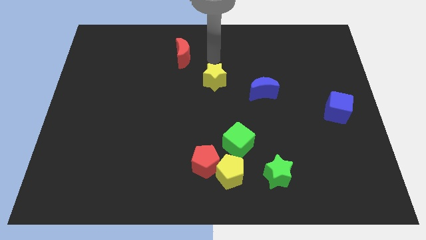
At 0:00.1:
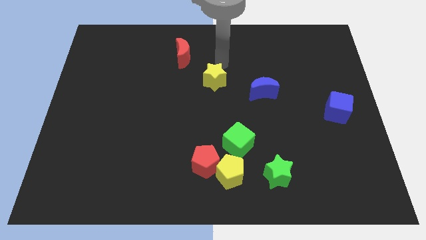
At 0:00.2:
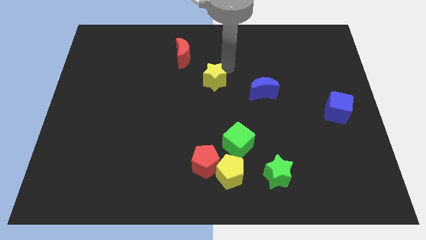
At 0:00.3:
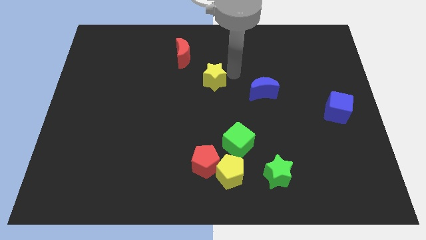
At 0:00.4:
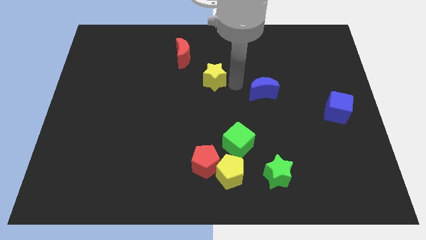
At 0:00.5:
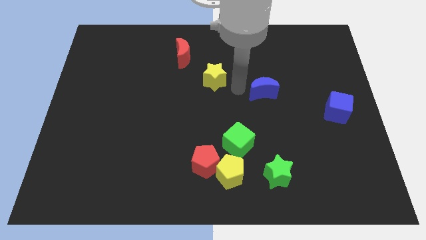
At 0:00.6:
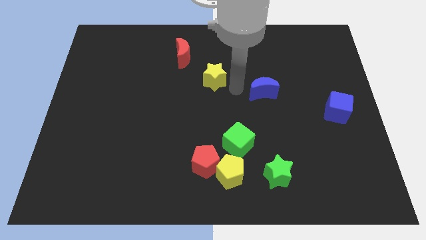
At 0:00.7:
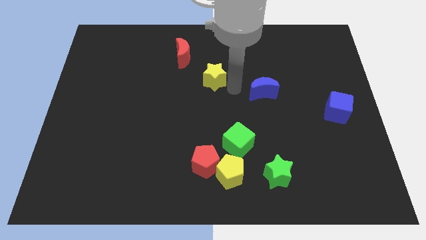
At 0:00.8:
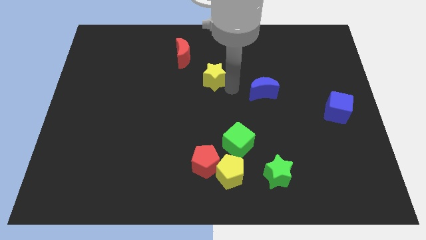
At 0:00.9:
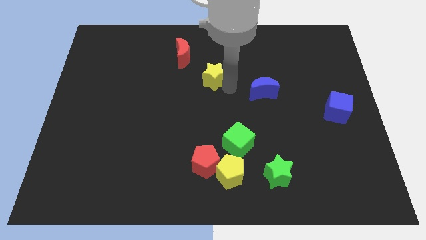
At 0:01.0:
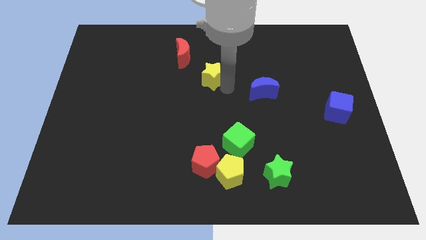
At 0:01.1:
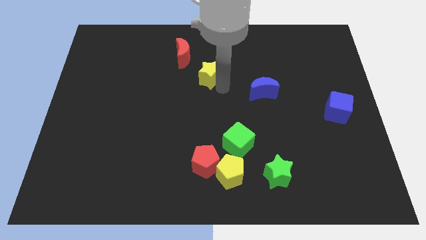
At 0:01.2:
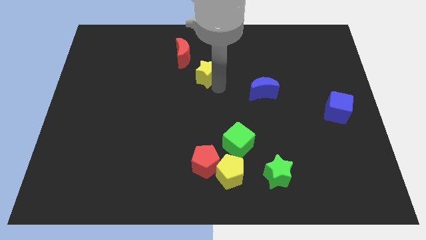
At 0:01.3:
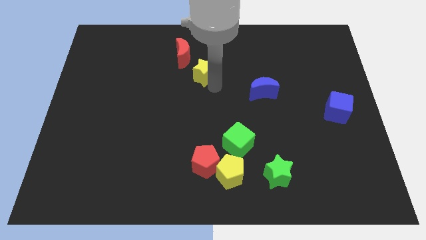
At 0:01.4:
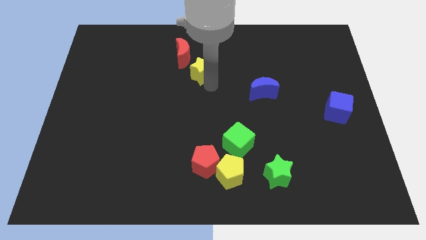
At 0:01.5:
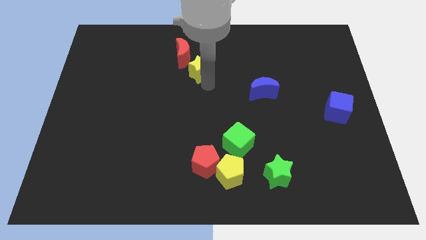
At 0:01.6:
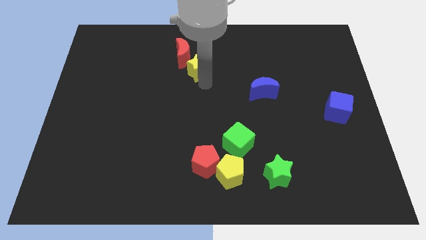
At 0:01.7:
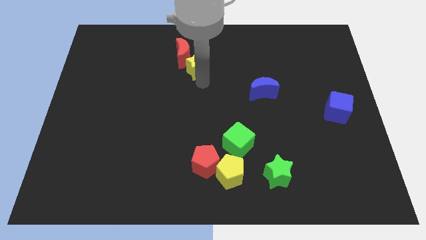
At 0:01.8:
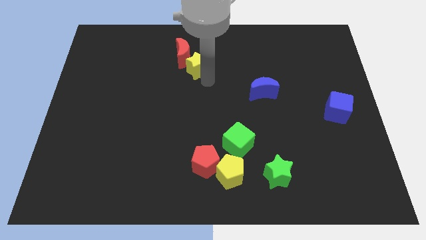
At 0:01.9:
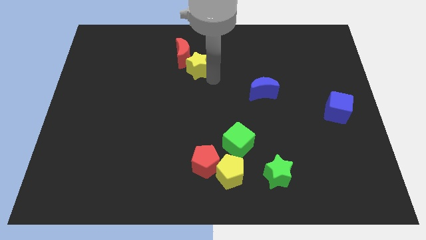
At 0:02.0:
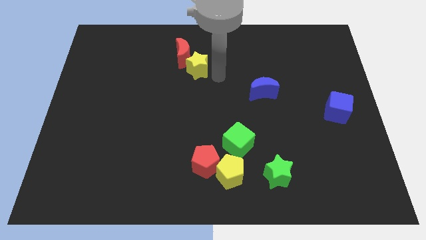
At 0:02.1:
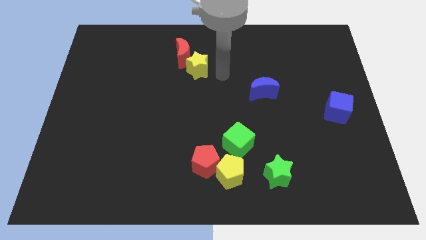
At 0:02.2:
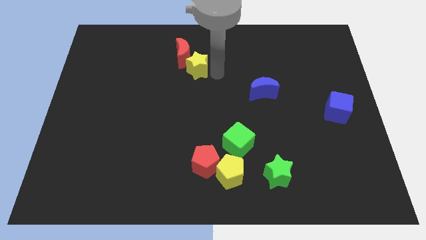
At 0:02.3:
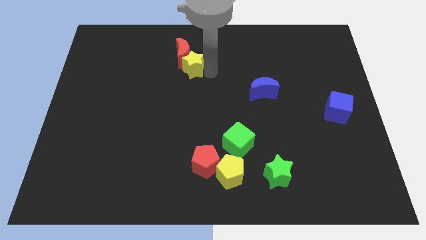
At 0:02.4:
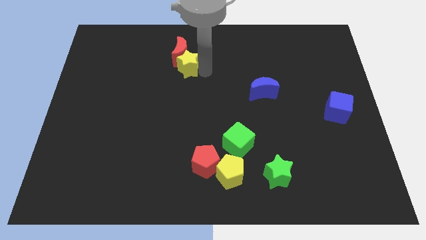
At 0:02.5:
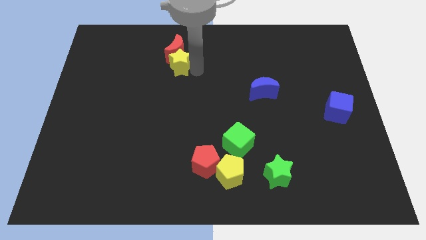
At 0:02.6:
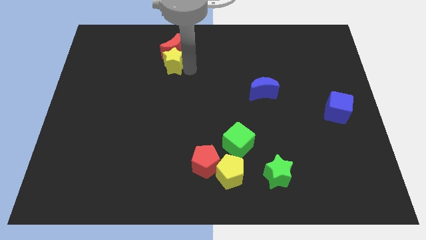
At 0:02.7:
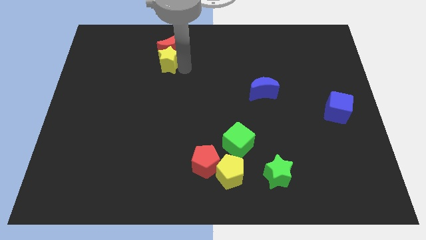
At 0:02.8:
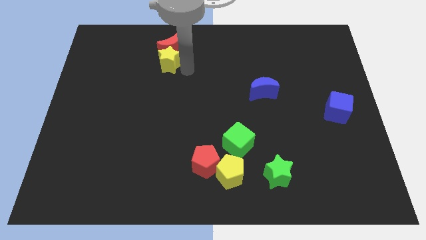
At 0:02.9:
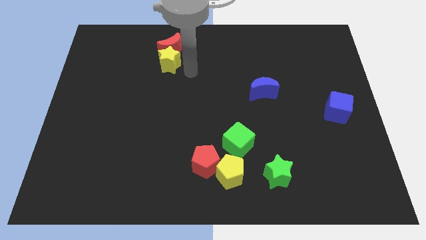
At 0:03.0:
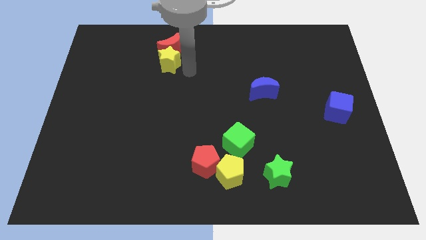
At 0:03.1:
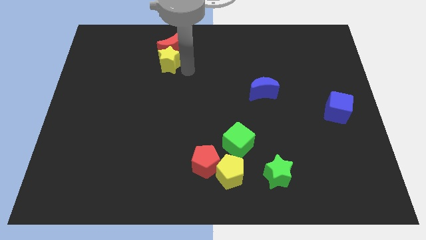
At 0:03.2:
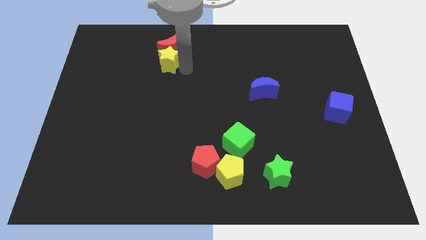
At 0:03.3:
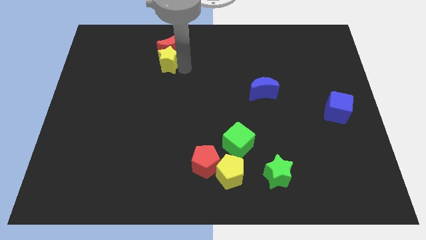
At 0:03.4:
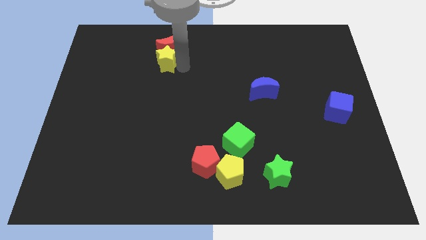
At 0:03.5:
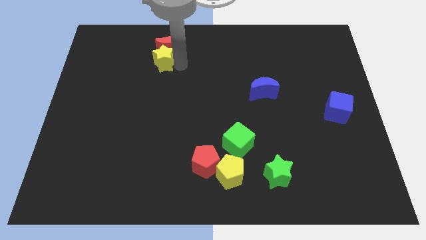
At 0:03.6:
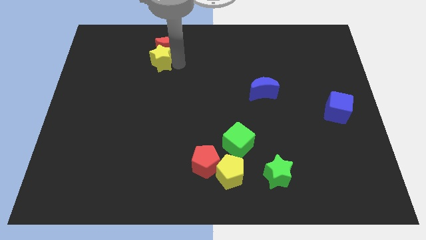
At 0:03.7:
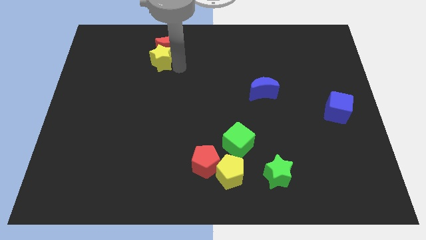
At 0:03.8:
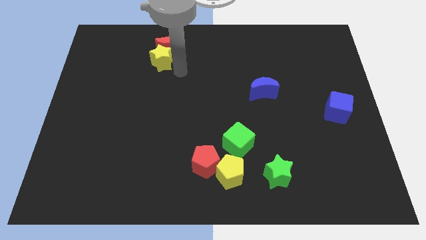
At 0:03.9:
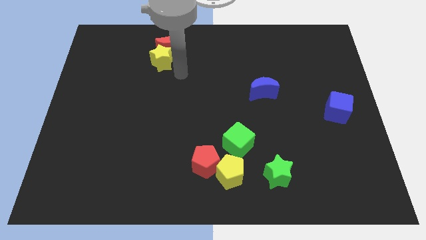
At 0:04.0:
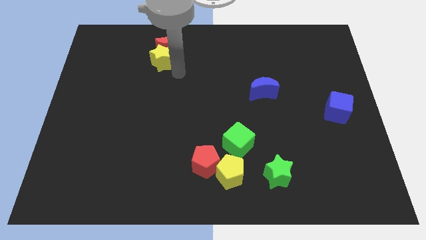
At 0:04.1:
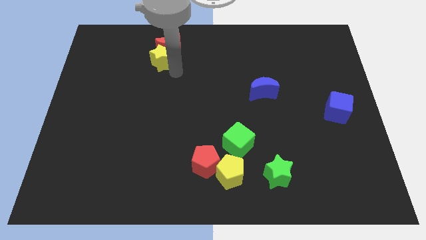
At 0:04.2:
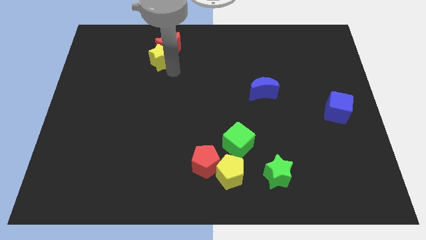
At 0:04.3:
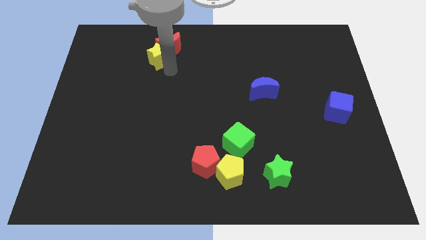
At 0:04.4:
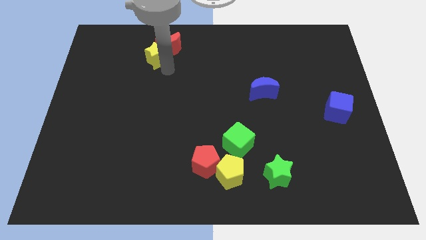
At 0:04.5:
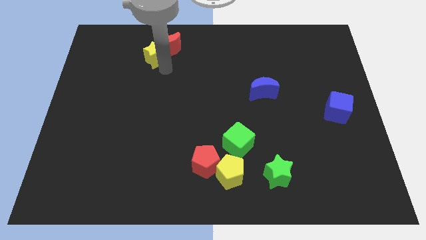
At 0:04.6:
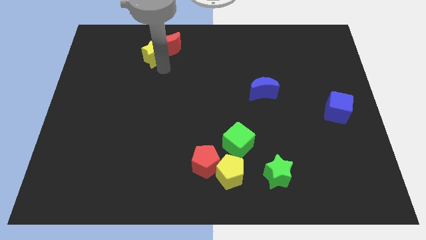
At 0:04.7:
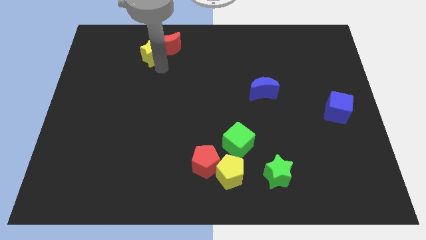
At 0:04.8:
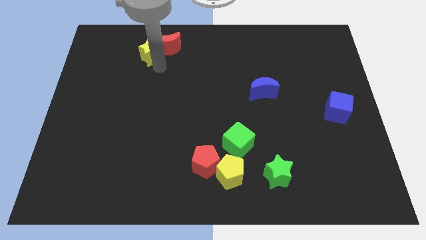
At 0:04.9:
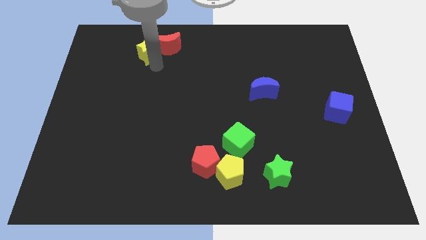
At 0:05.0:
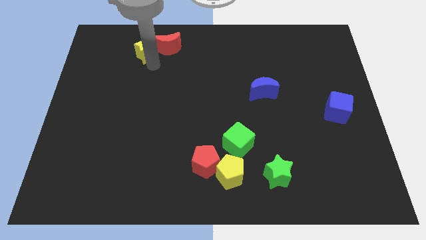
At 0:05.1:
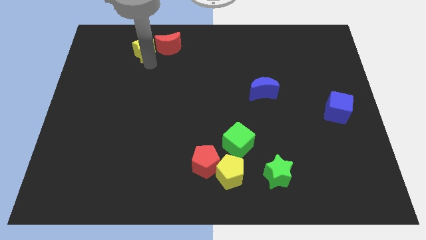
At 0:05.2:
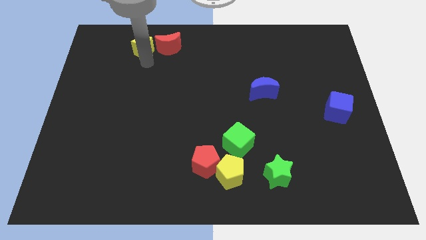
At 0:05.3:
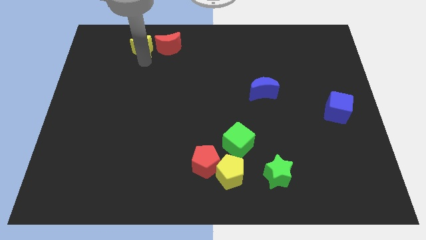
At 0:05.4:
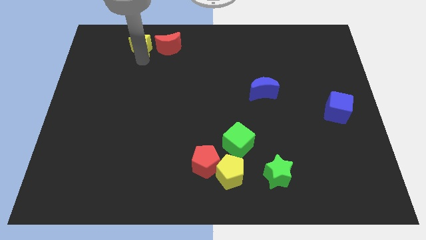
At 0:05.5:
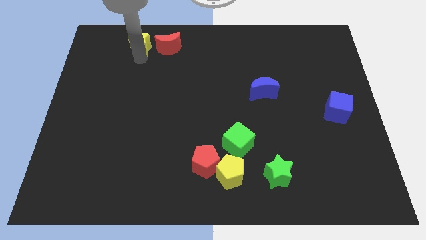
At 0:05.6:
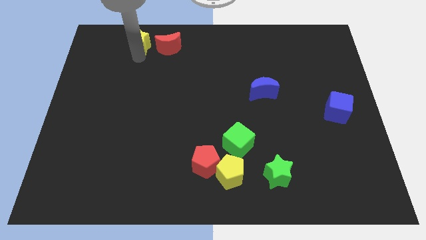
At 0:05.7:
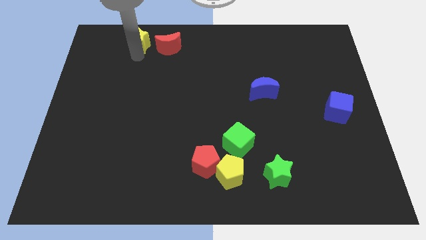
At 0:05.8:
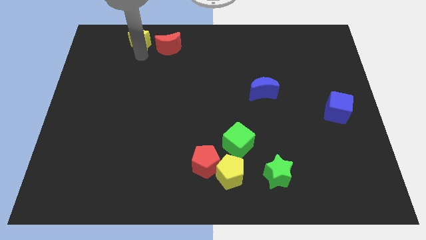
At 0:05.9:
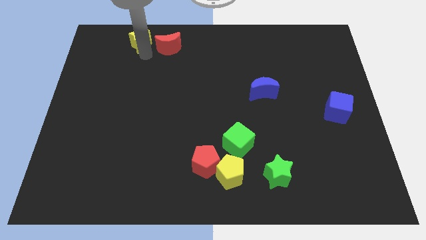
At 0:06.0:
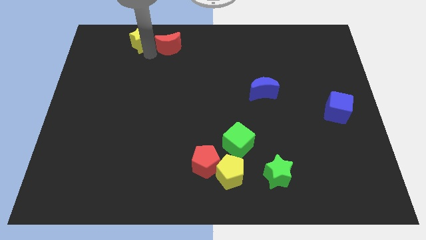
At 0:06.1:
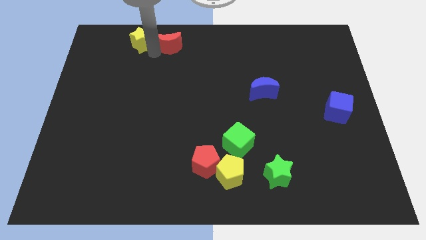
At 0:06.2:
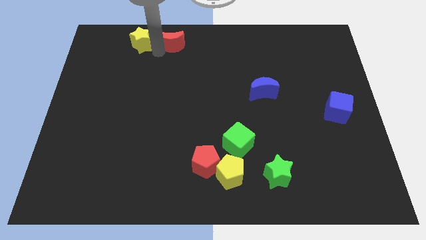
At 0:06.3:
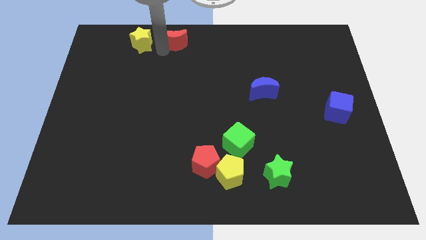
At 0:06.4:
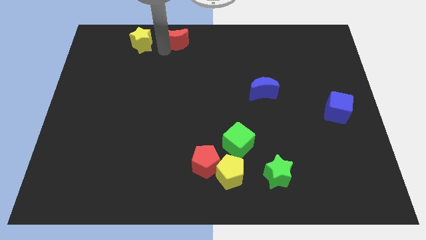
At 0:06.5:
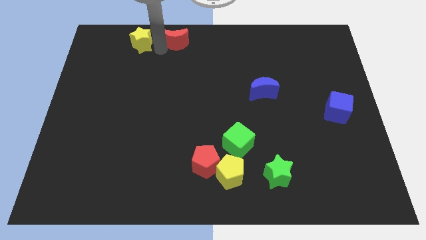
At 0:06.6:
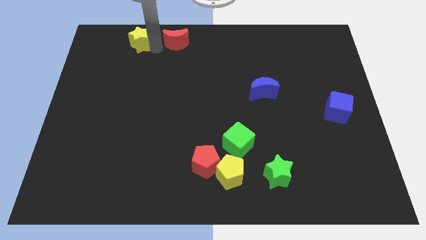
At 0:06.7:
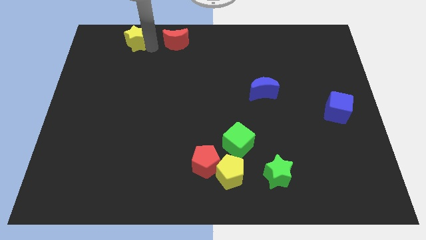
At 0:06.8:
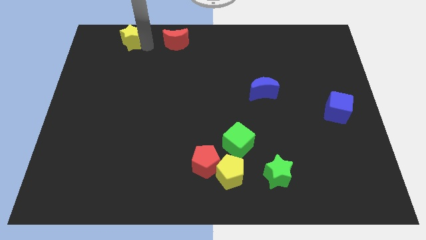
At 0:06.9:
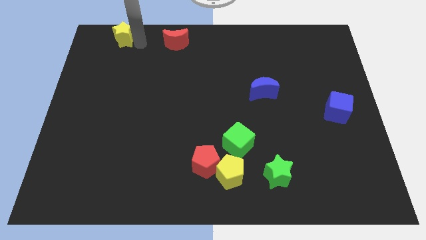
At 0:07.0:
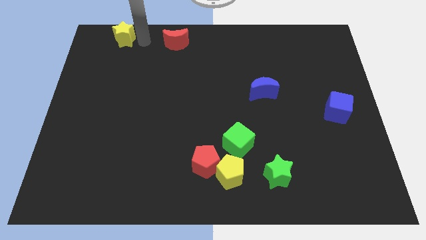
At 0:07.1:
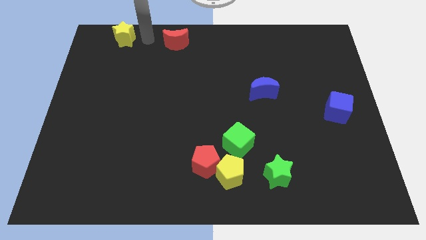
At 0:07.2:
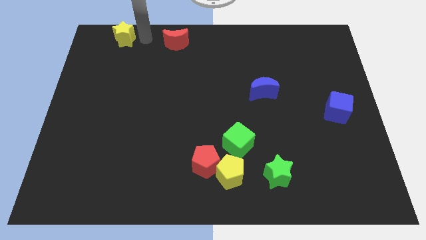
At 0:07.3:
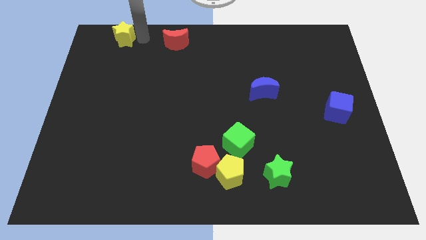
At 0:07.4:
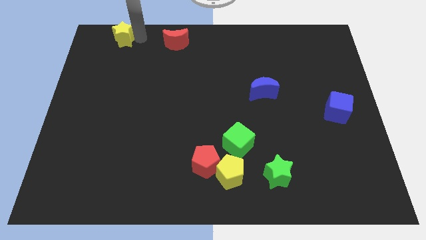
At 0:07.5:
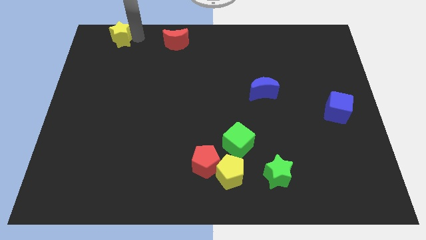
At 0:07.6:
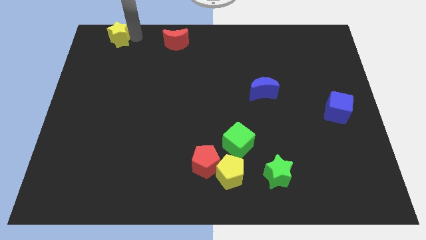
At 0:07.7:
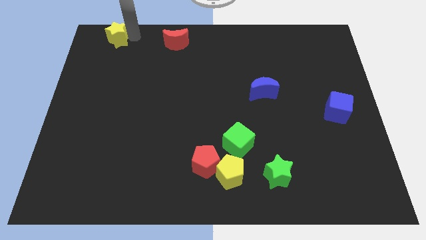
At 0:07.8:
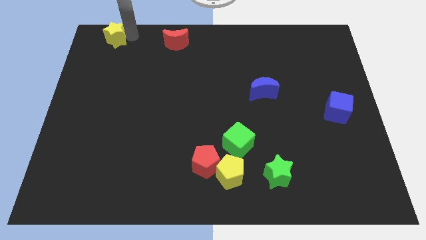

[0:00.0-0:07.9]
move the yellow star to the top left corner
